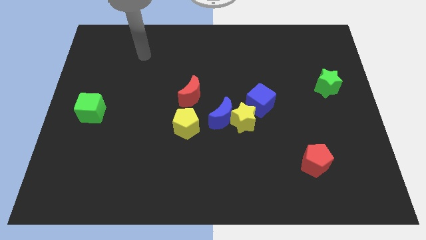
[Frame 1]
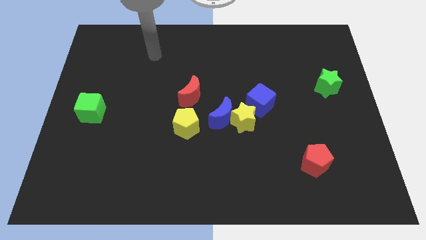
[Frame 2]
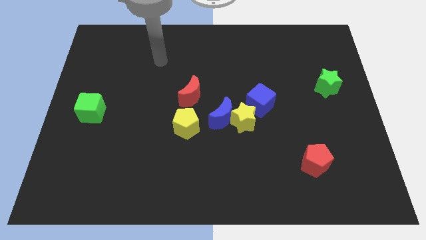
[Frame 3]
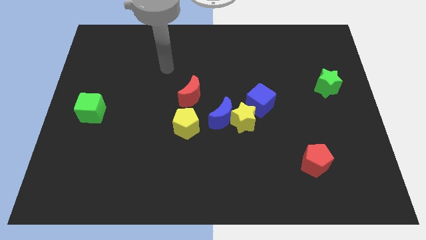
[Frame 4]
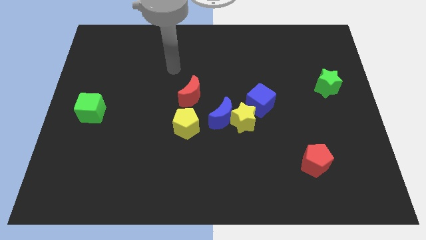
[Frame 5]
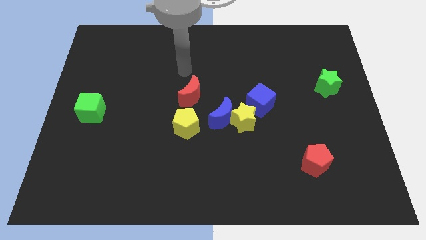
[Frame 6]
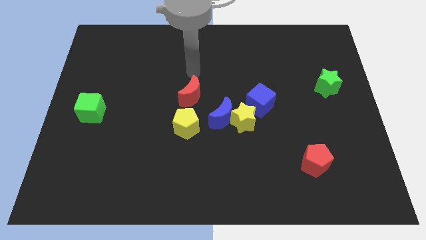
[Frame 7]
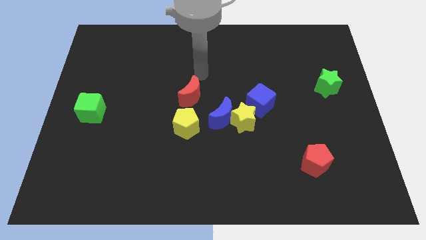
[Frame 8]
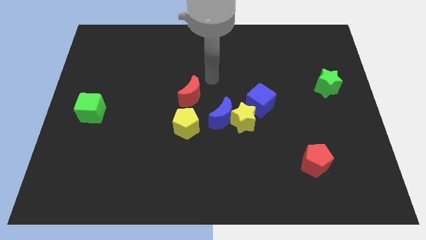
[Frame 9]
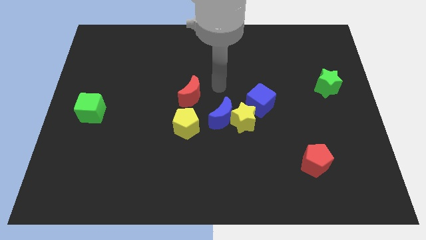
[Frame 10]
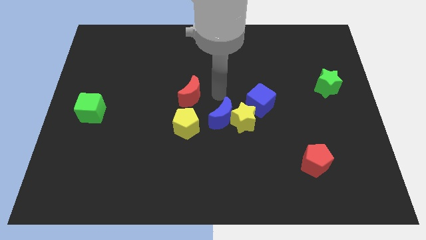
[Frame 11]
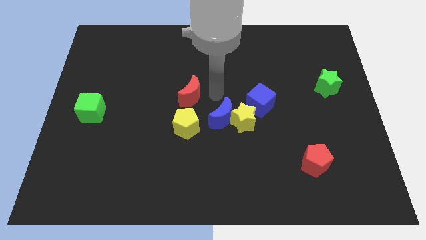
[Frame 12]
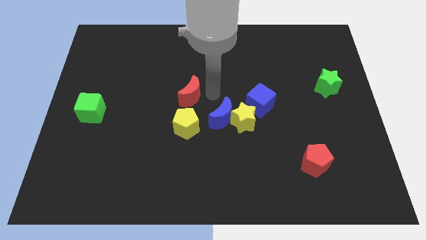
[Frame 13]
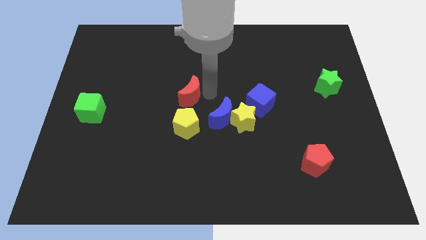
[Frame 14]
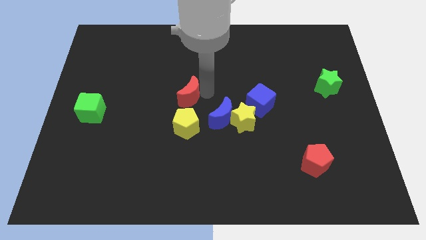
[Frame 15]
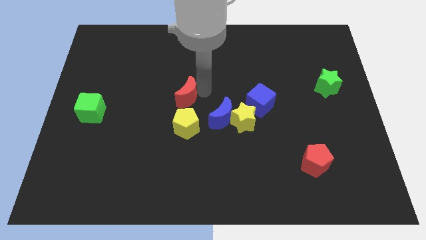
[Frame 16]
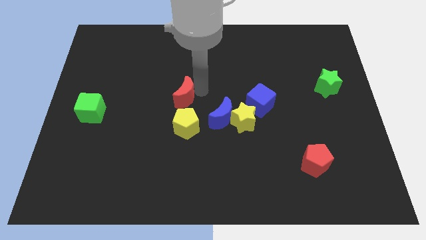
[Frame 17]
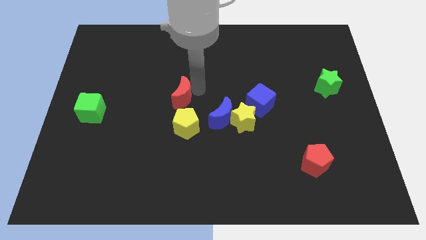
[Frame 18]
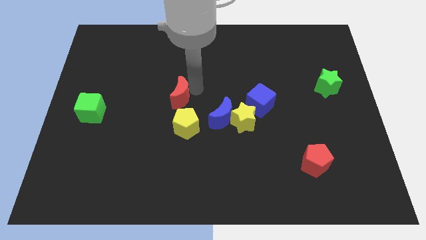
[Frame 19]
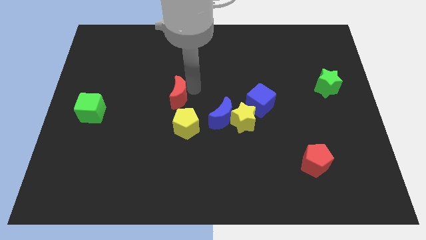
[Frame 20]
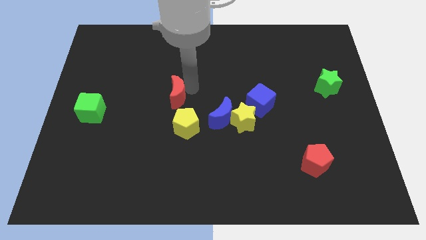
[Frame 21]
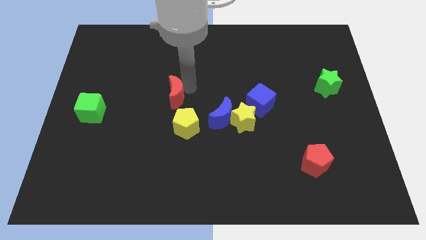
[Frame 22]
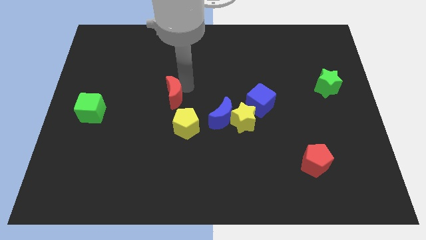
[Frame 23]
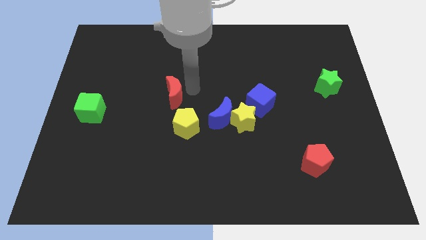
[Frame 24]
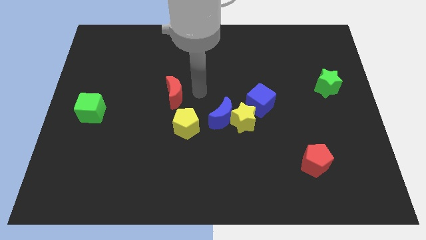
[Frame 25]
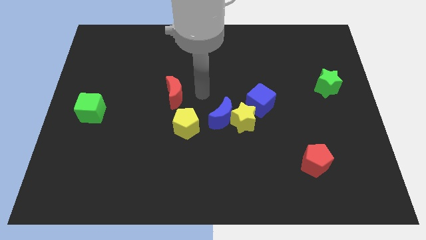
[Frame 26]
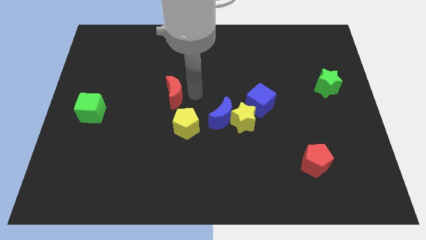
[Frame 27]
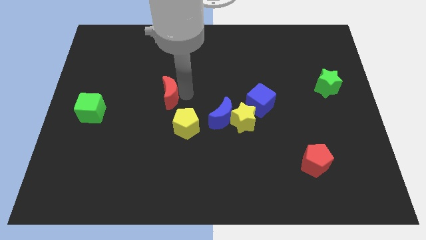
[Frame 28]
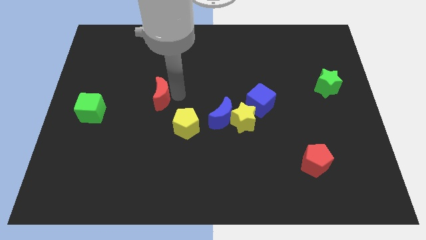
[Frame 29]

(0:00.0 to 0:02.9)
slightly push the red moon left

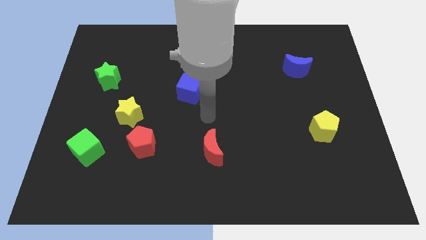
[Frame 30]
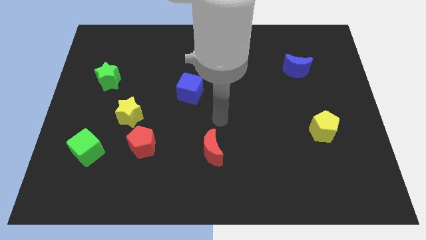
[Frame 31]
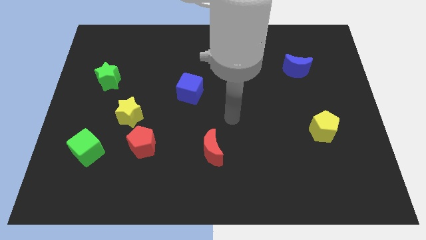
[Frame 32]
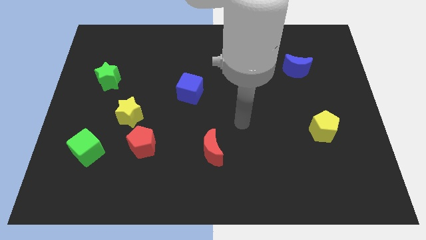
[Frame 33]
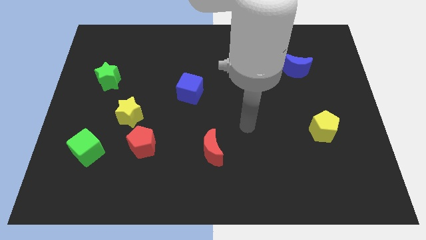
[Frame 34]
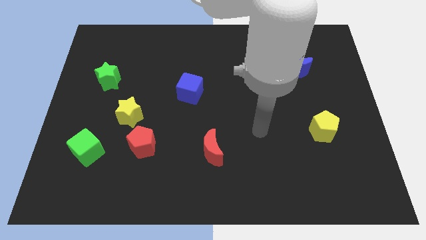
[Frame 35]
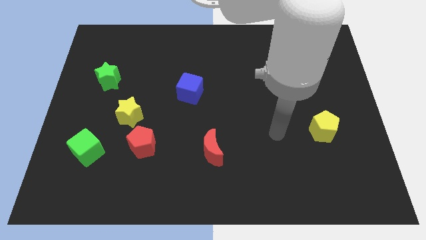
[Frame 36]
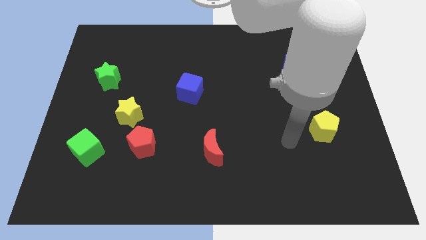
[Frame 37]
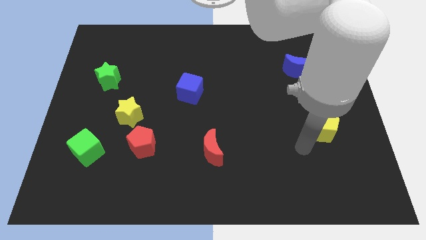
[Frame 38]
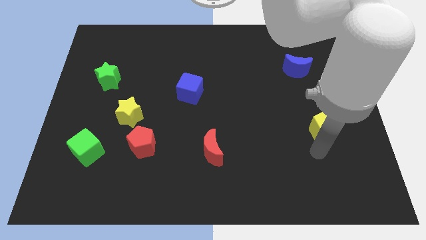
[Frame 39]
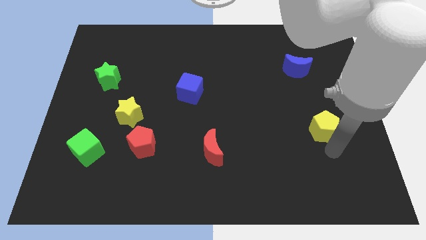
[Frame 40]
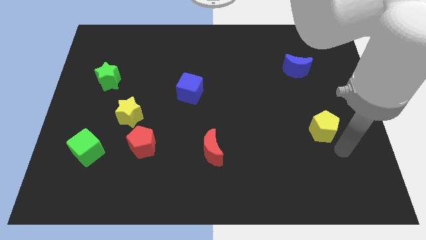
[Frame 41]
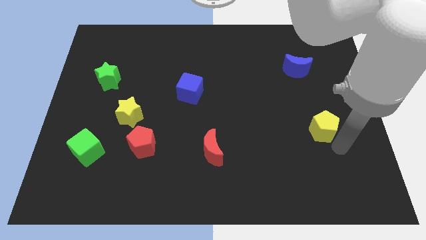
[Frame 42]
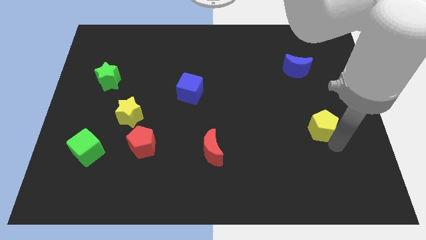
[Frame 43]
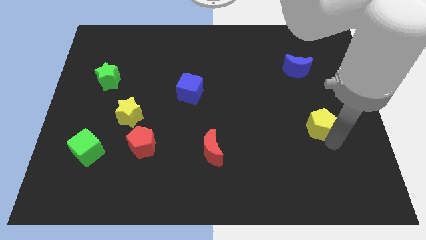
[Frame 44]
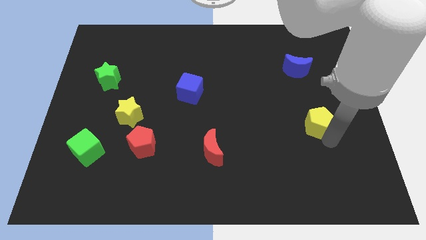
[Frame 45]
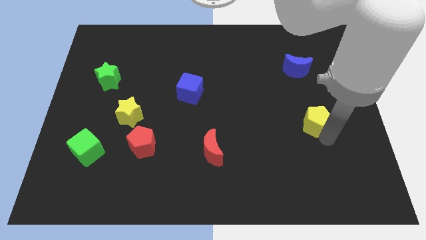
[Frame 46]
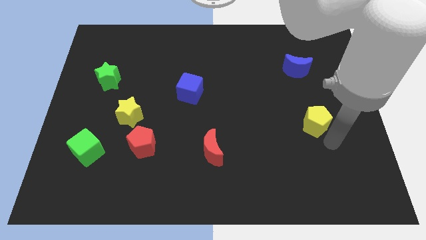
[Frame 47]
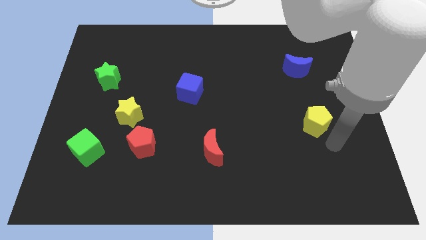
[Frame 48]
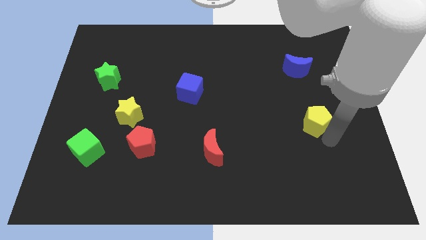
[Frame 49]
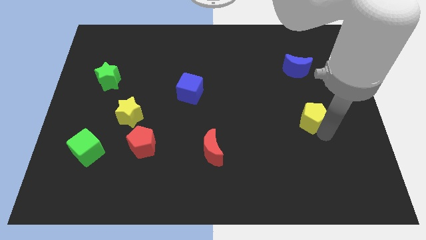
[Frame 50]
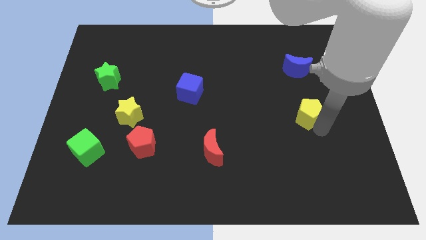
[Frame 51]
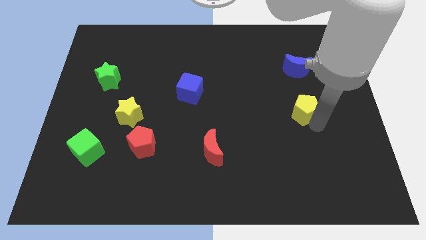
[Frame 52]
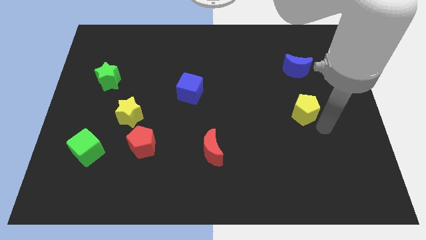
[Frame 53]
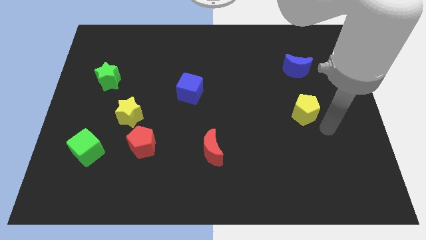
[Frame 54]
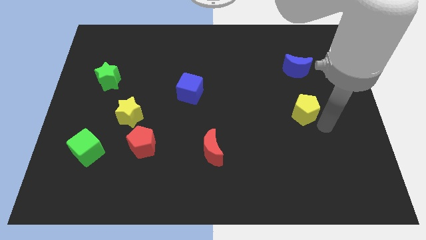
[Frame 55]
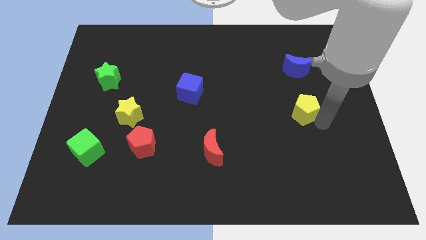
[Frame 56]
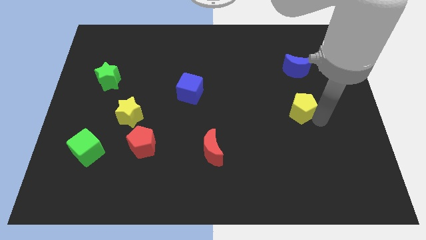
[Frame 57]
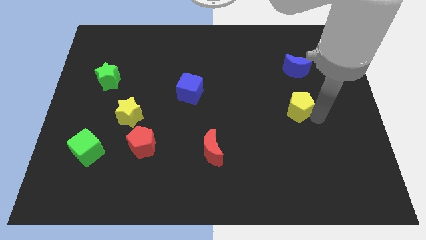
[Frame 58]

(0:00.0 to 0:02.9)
push the yellow pentagon upwards and then to the left slightly

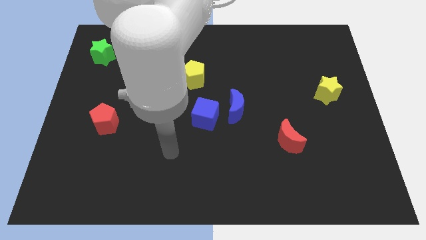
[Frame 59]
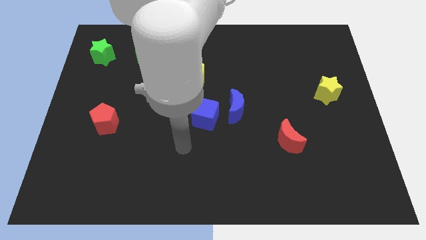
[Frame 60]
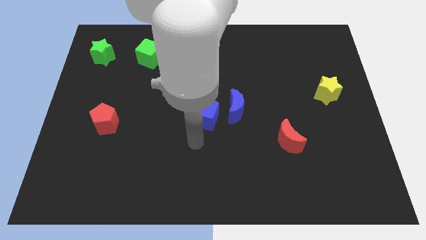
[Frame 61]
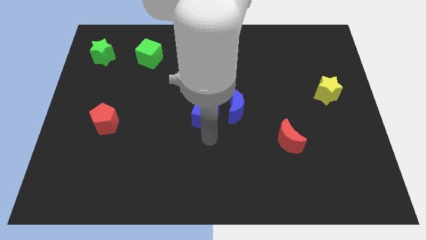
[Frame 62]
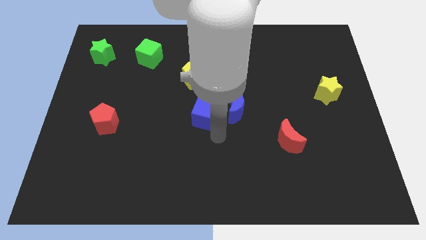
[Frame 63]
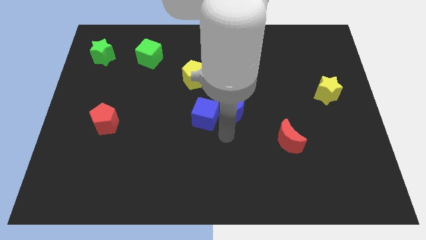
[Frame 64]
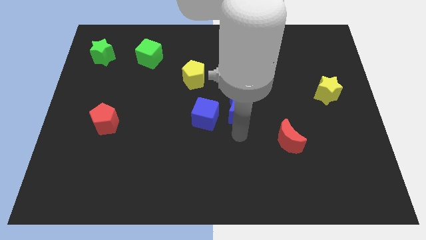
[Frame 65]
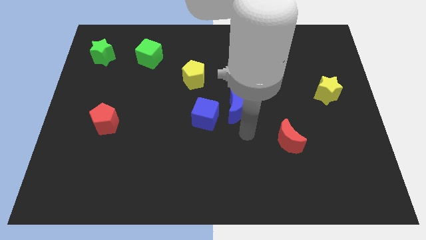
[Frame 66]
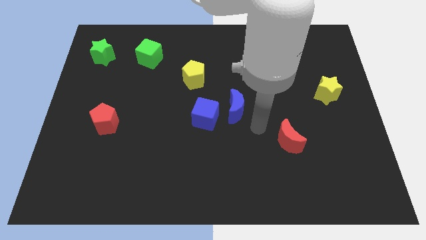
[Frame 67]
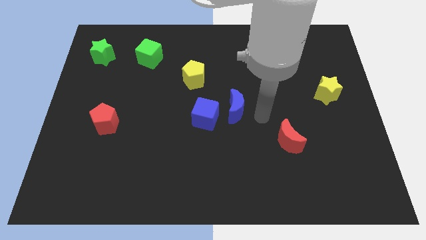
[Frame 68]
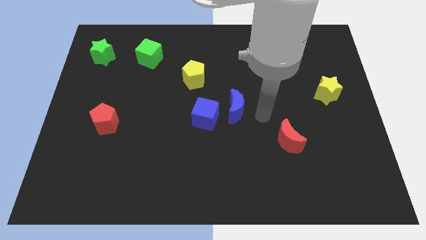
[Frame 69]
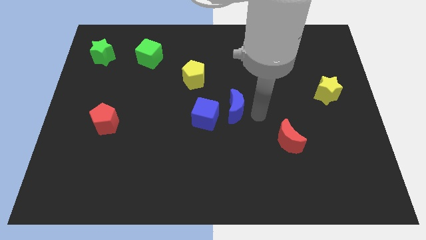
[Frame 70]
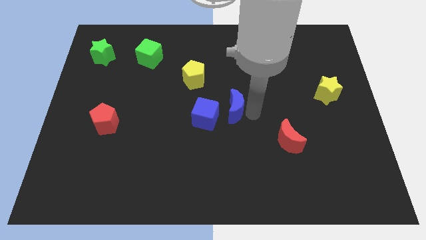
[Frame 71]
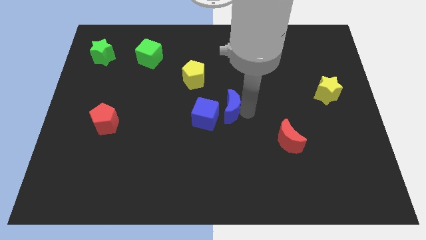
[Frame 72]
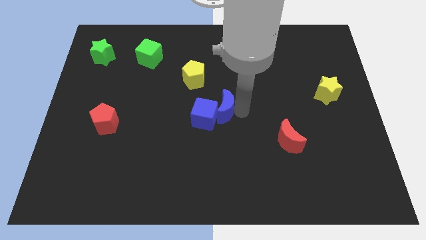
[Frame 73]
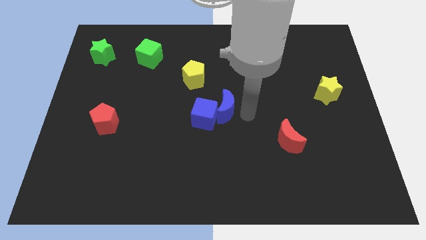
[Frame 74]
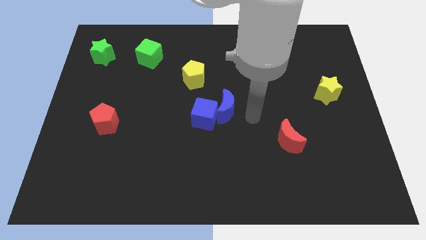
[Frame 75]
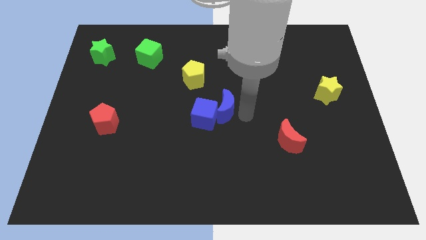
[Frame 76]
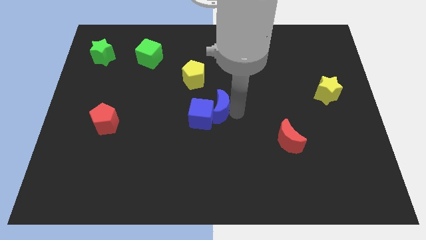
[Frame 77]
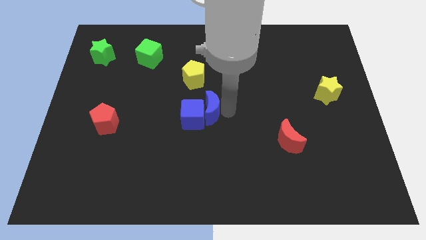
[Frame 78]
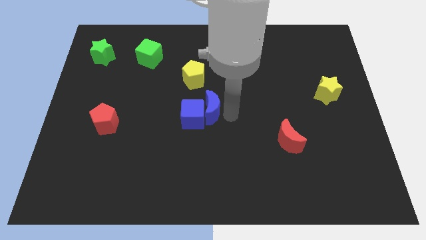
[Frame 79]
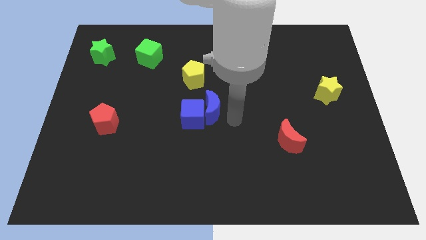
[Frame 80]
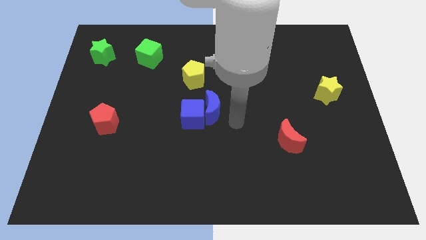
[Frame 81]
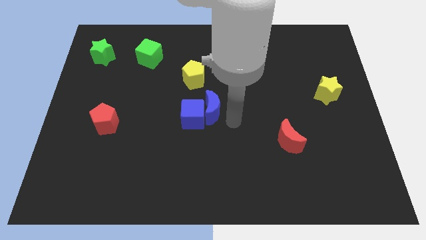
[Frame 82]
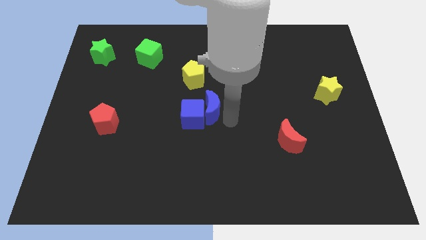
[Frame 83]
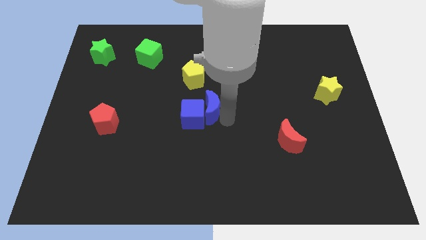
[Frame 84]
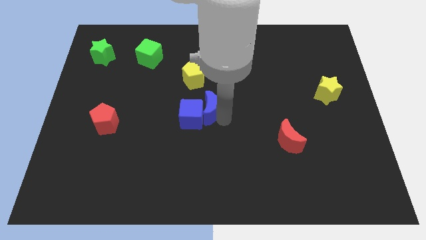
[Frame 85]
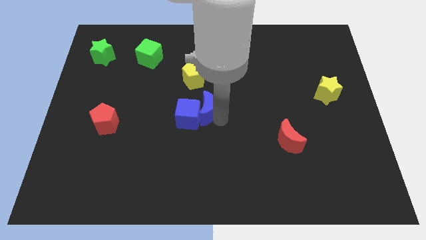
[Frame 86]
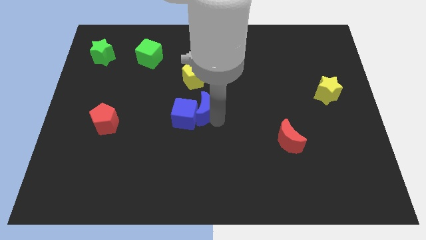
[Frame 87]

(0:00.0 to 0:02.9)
slide the blue moon somewhat to the left
